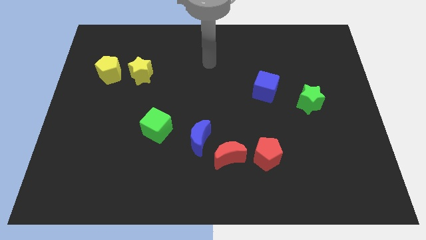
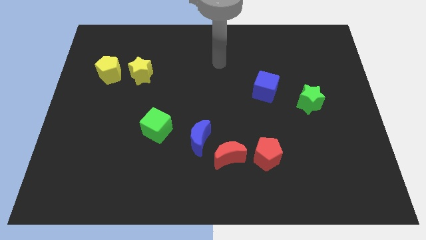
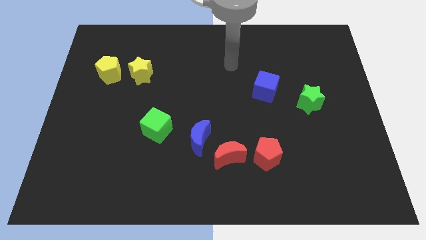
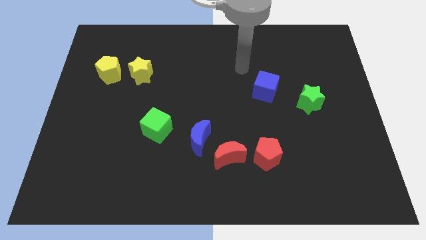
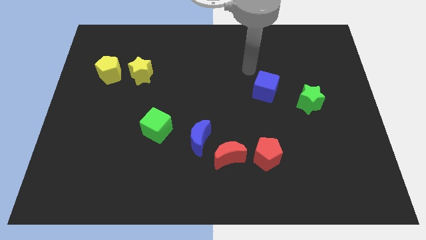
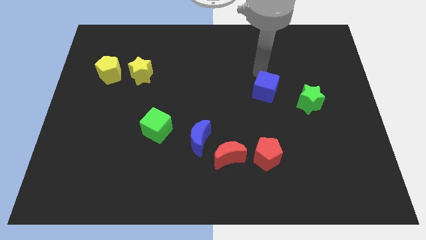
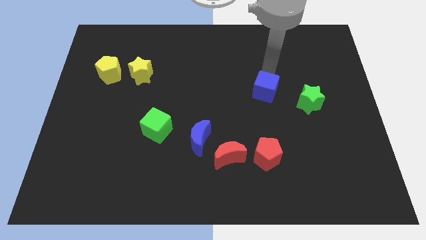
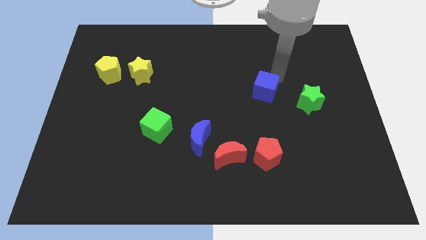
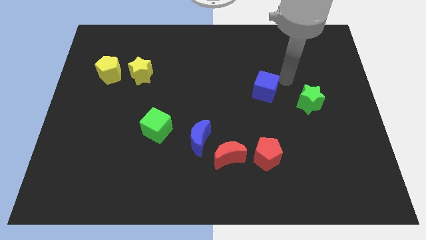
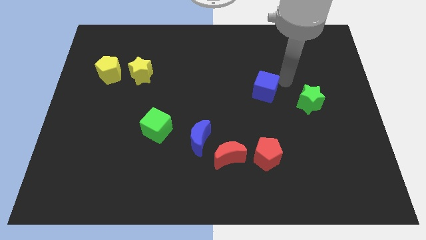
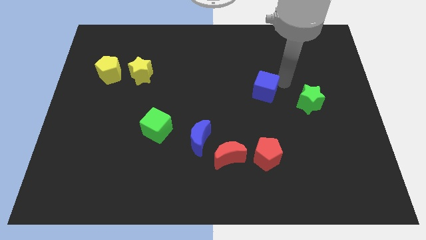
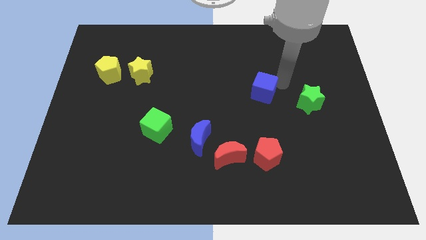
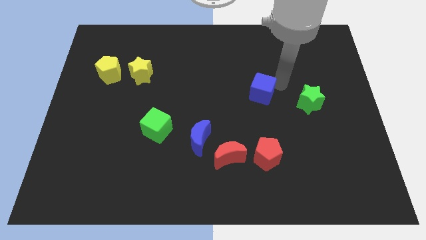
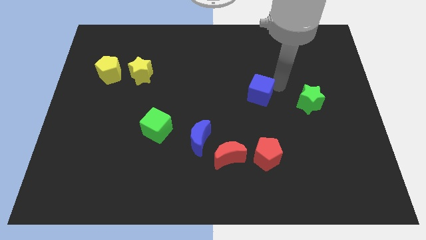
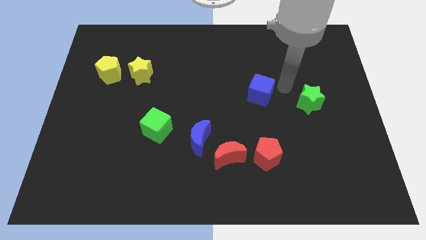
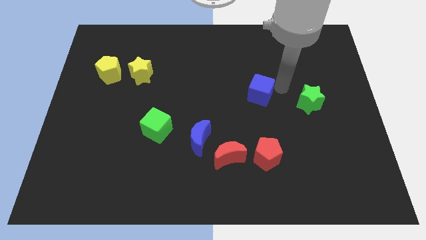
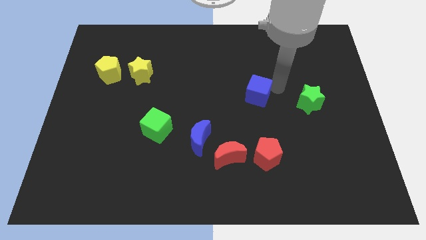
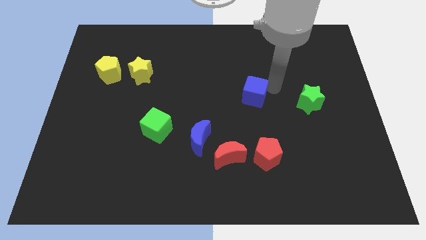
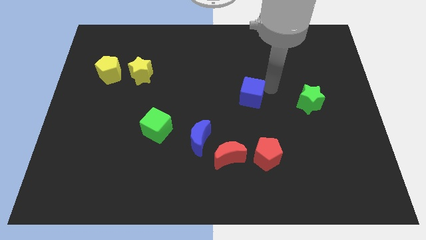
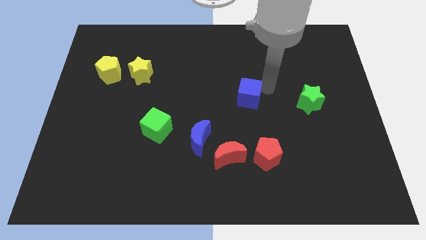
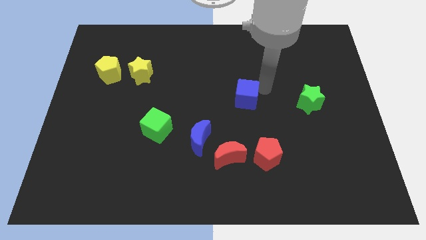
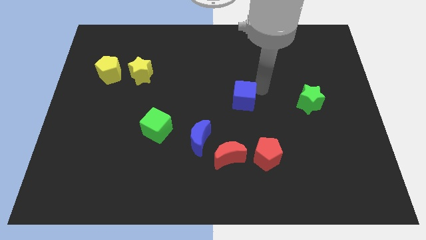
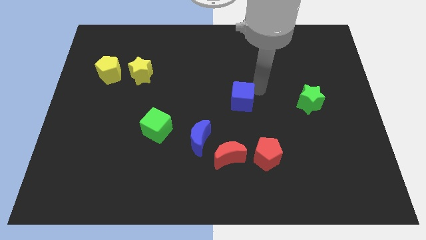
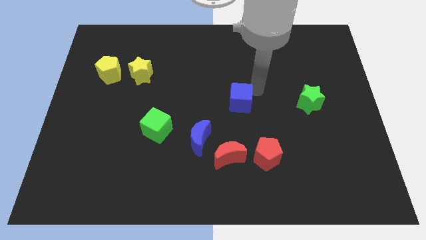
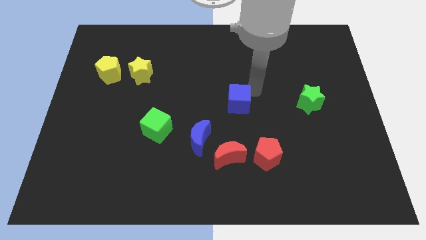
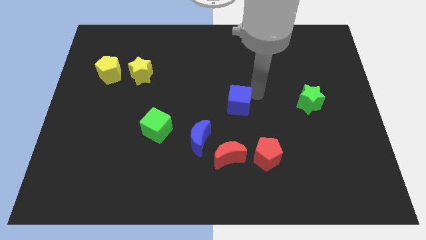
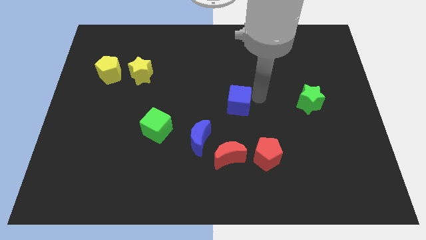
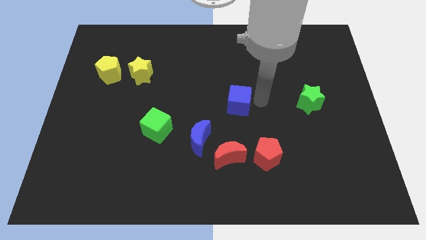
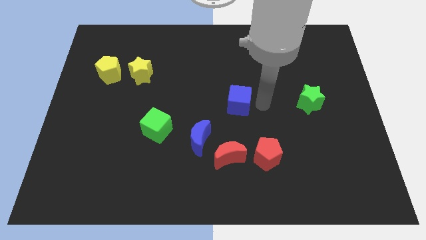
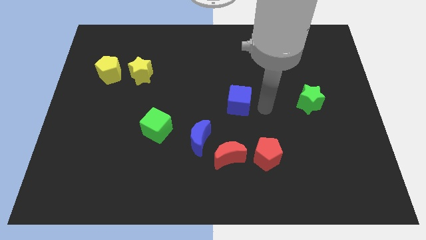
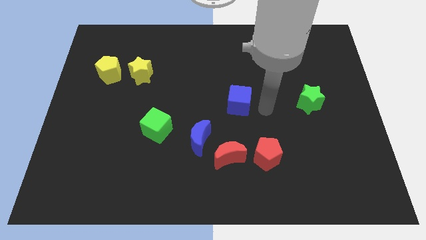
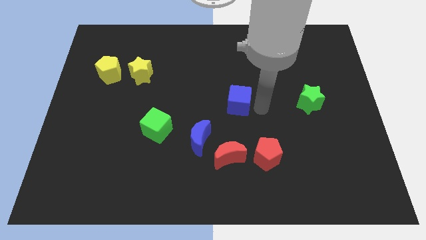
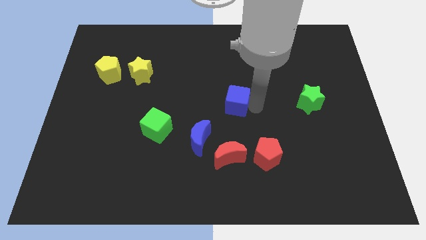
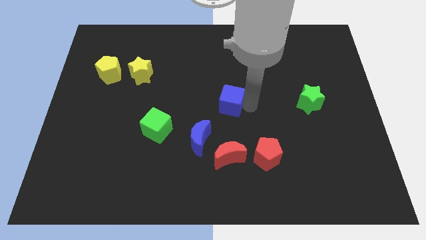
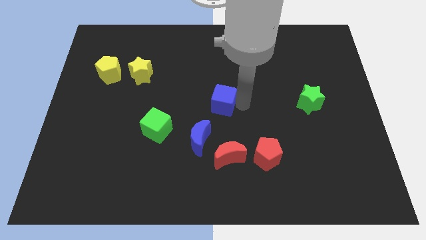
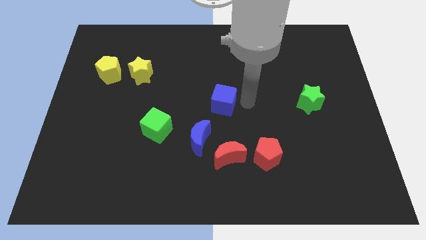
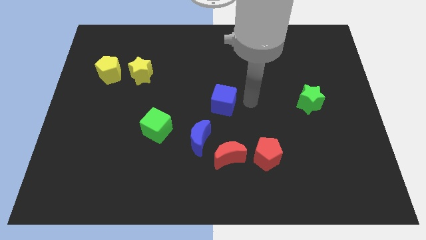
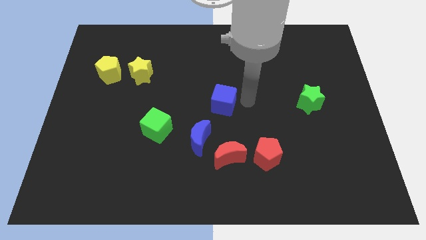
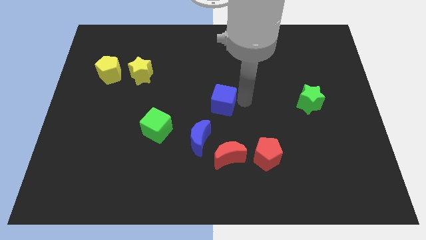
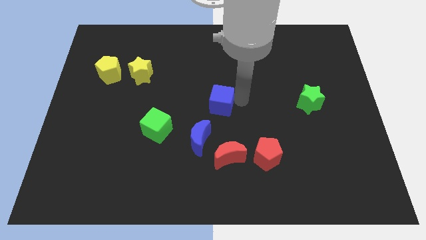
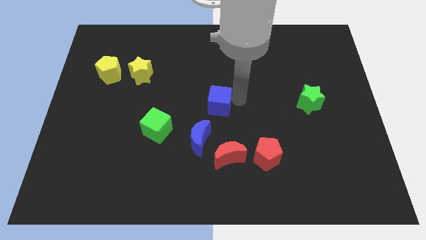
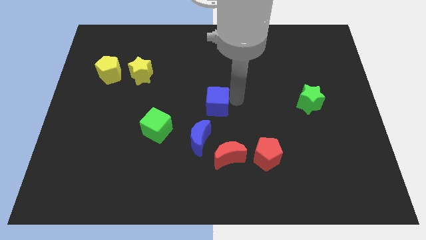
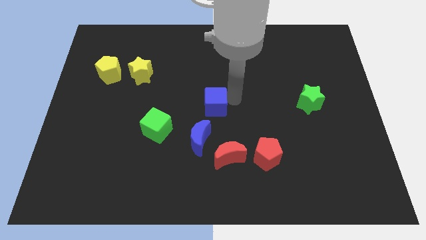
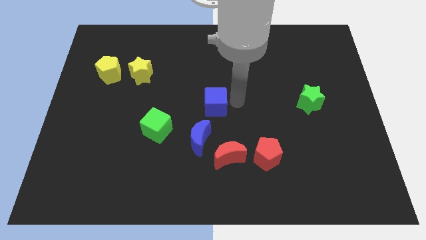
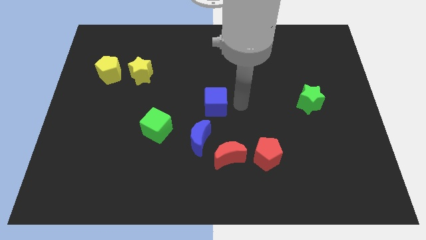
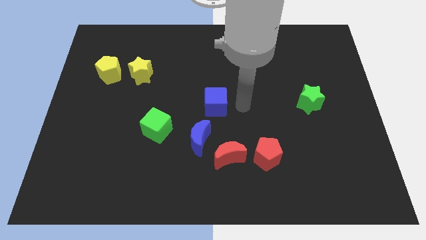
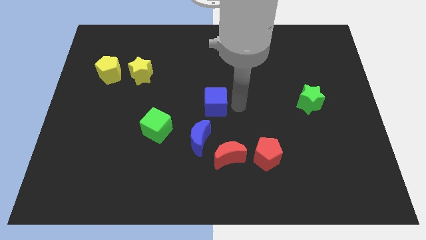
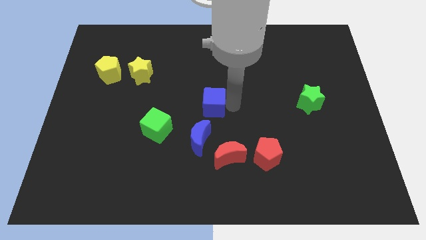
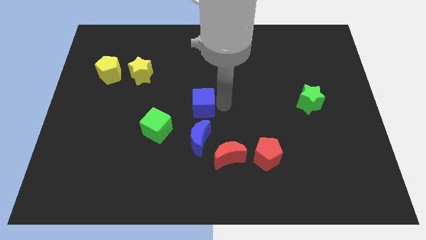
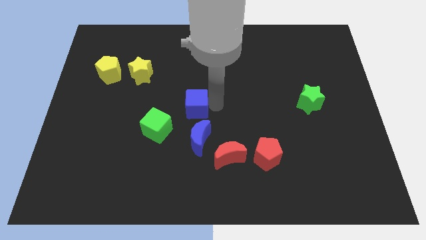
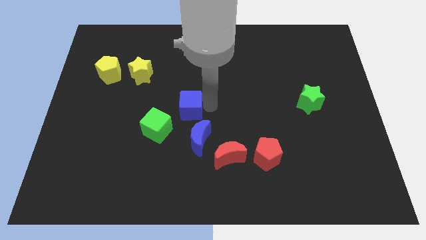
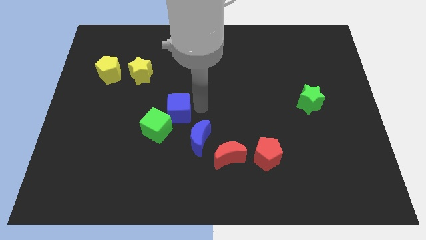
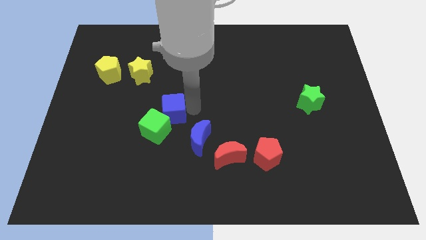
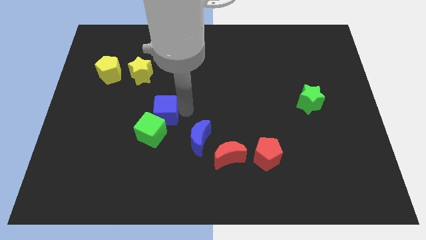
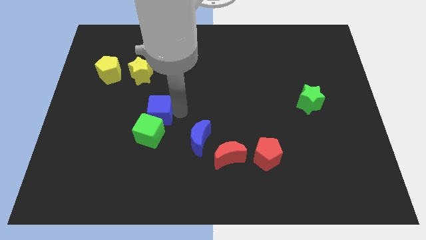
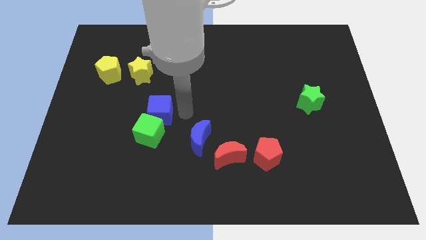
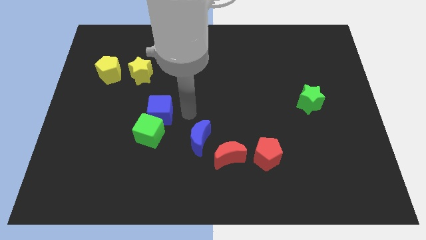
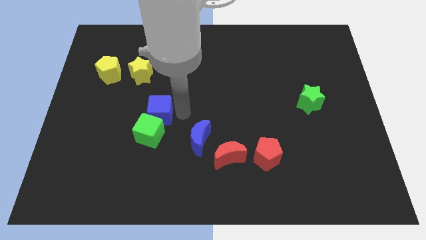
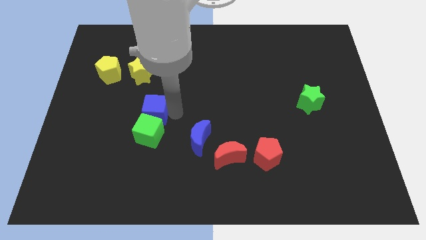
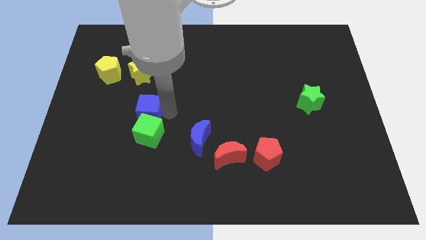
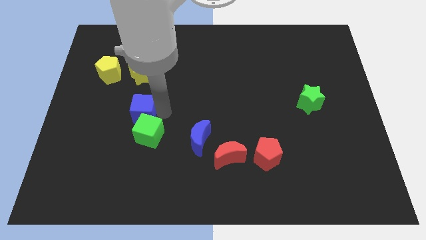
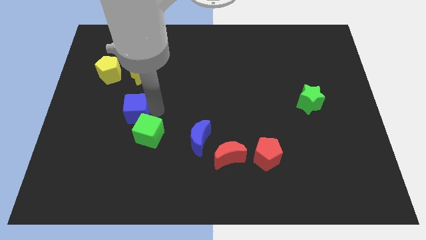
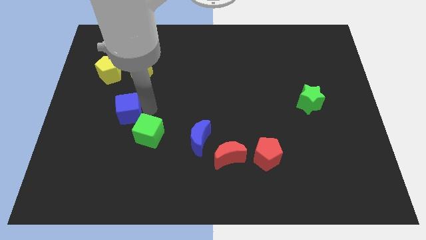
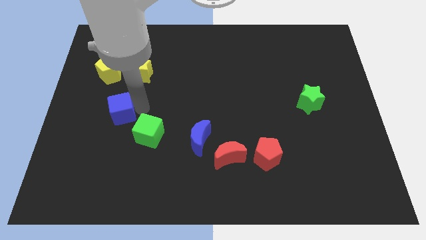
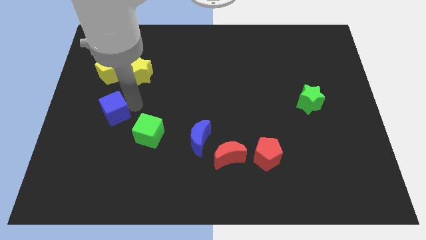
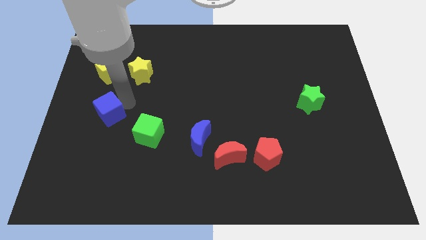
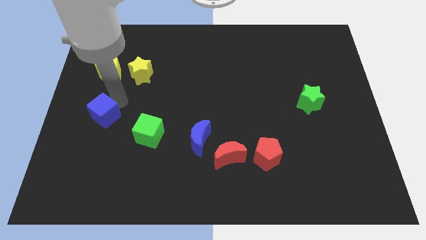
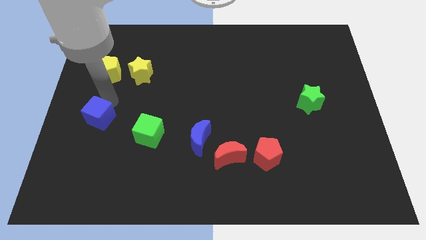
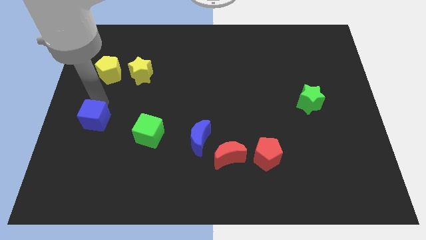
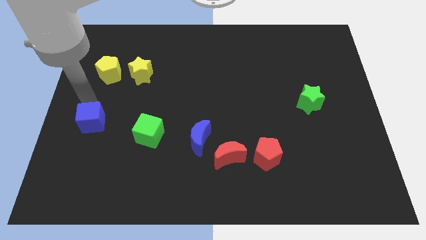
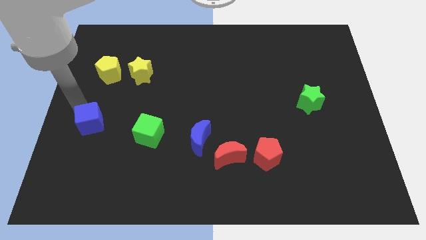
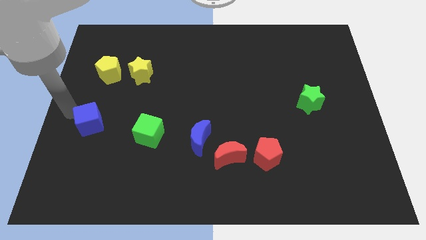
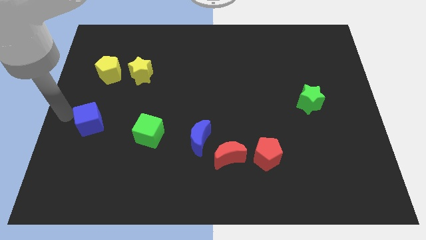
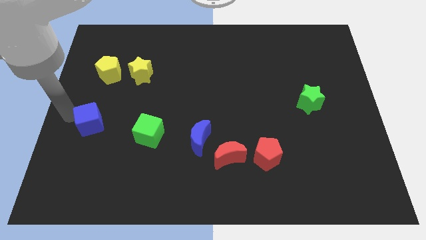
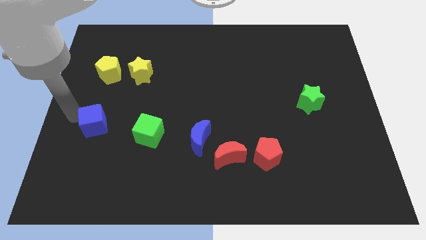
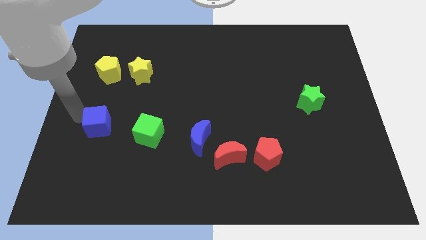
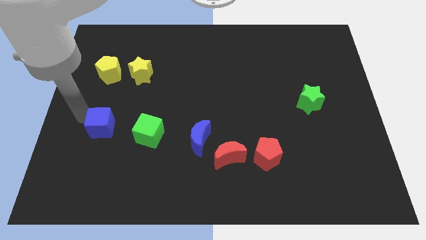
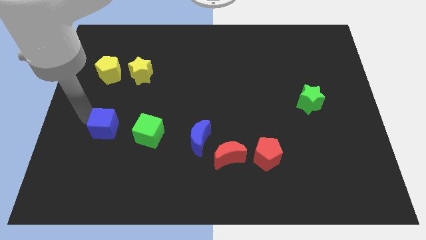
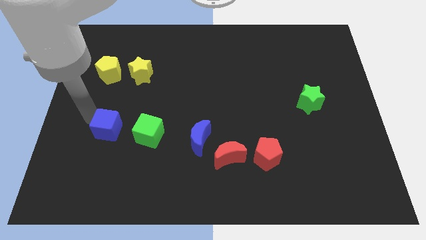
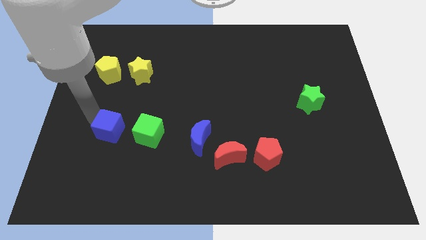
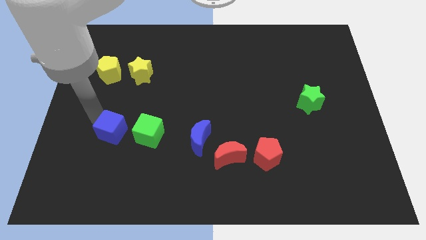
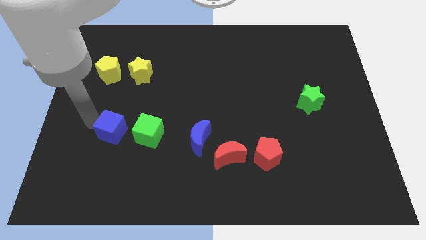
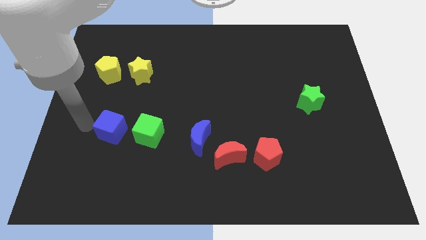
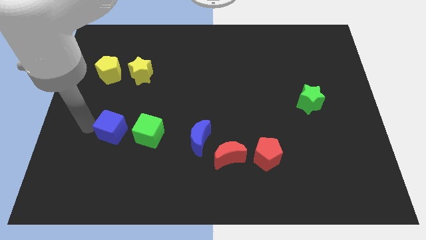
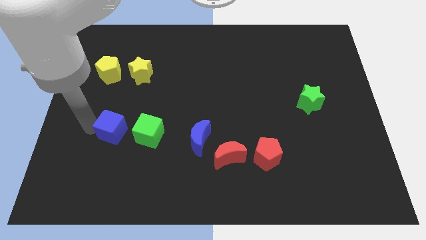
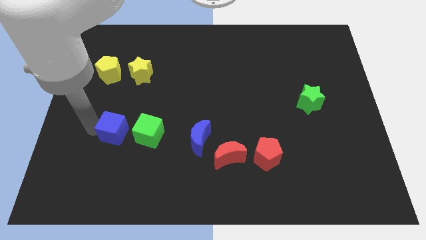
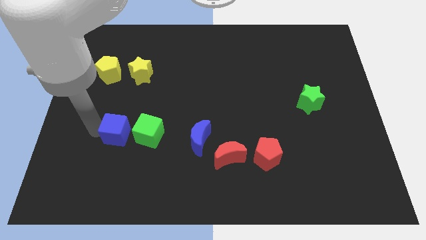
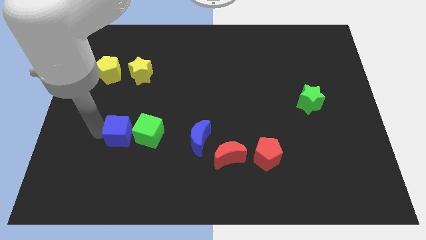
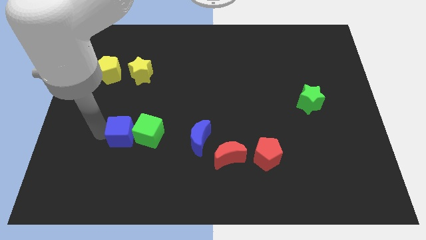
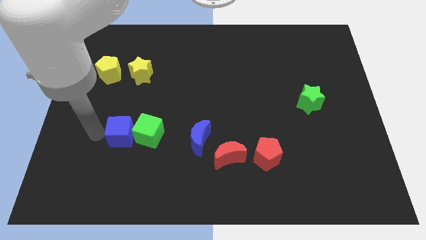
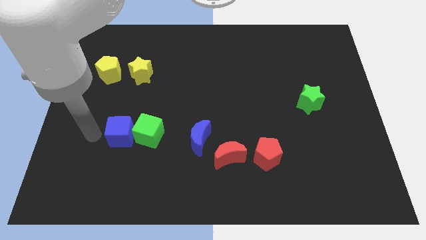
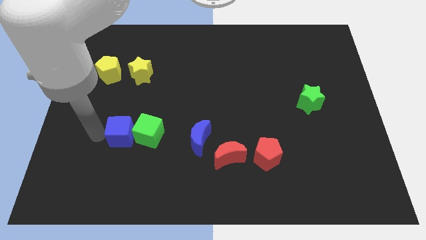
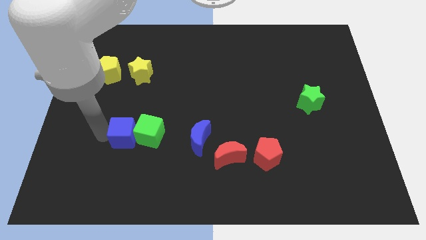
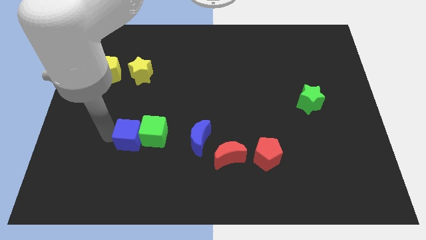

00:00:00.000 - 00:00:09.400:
slide the blue cube just left of the blue moon
